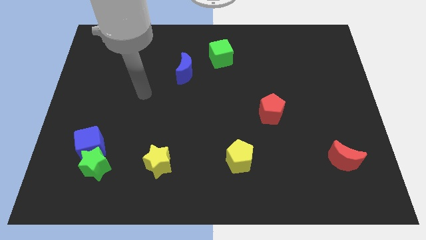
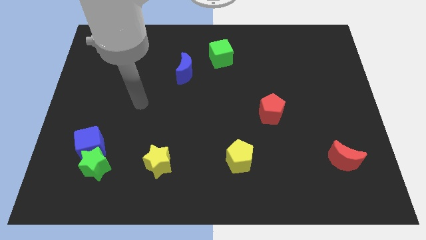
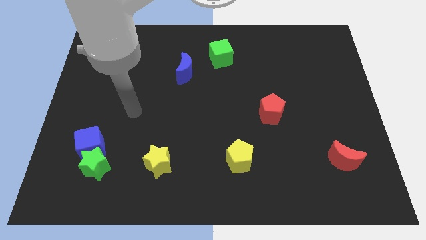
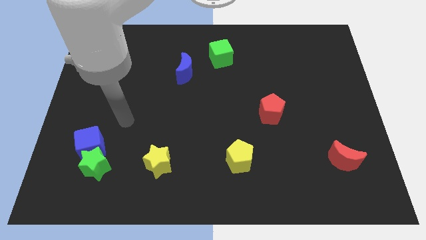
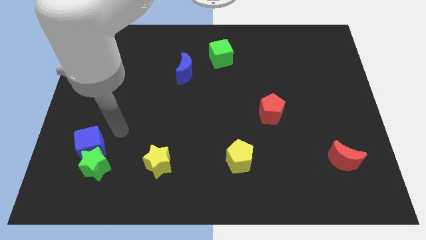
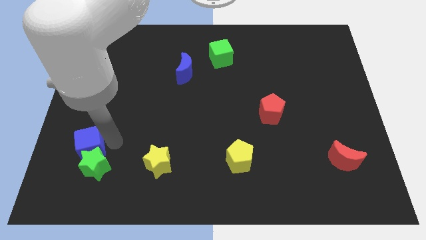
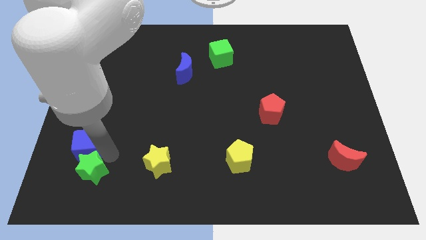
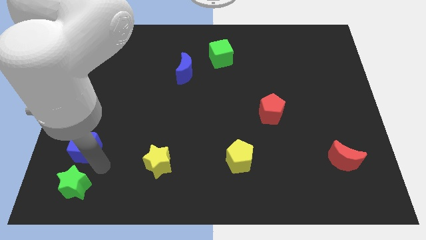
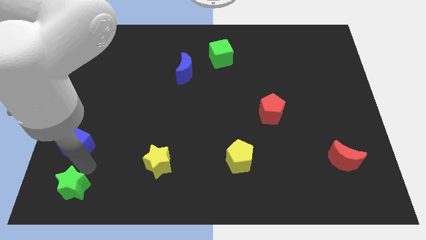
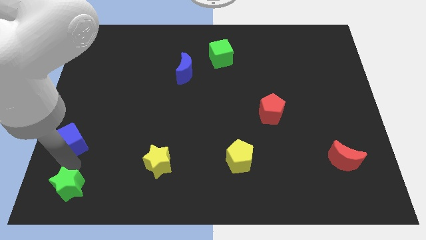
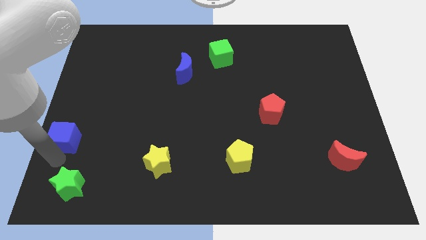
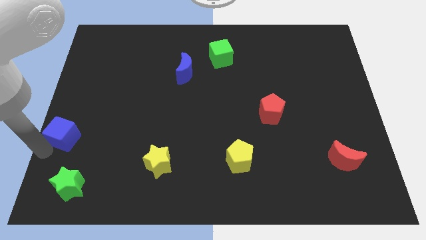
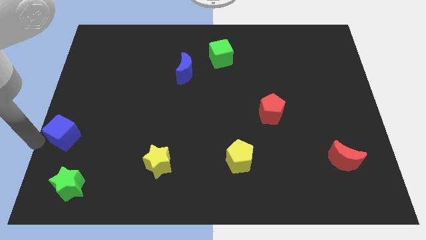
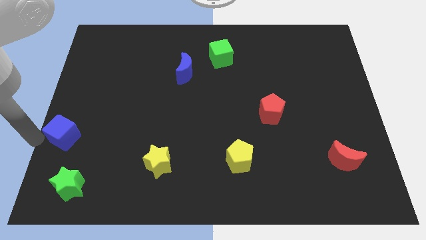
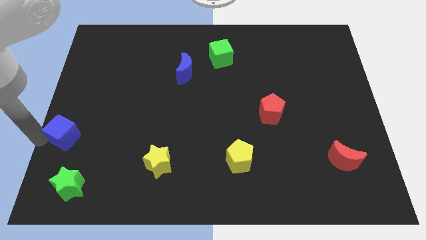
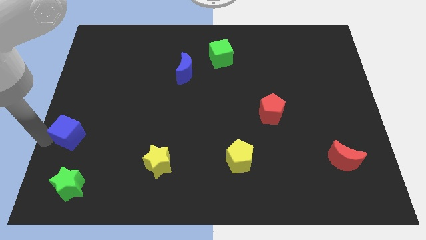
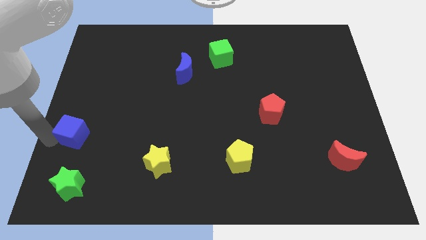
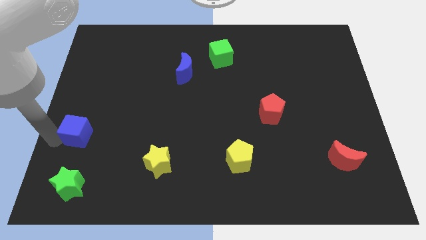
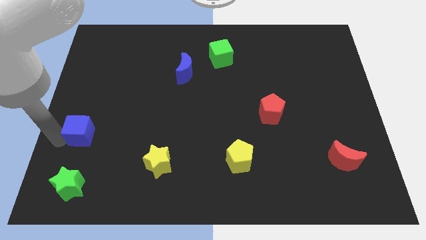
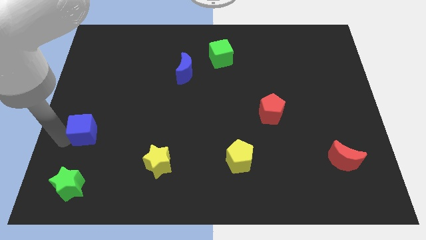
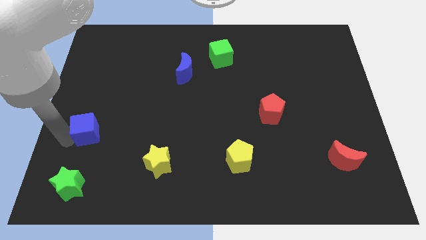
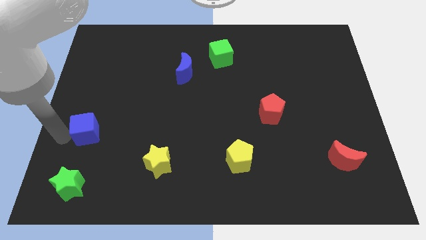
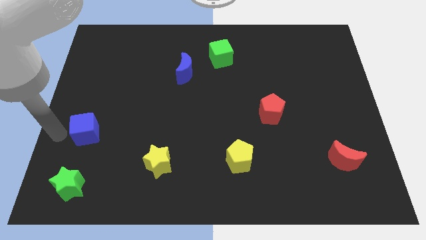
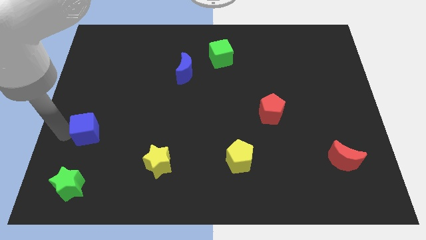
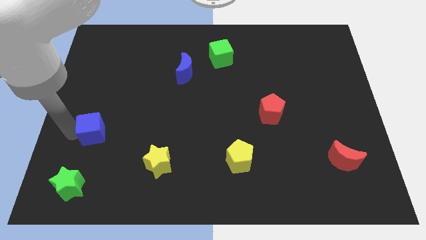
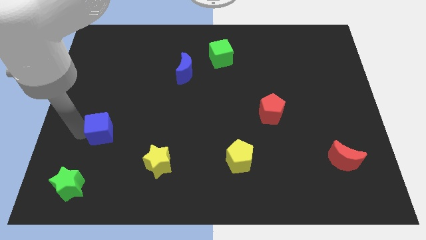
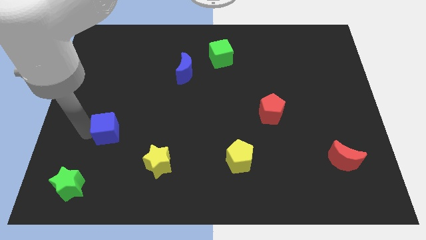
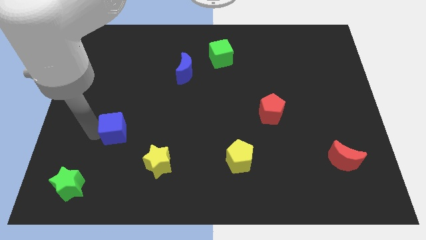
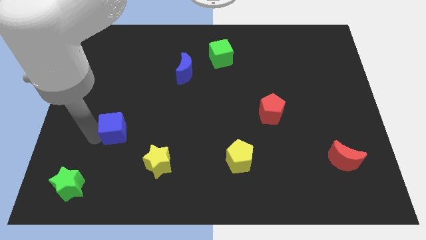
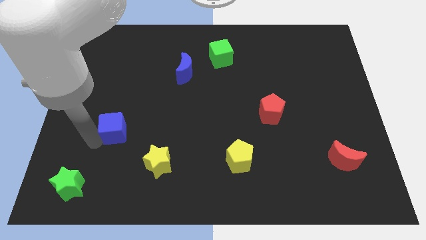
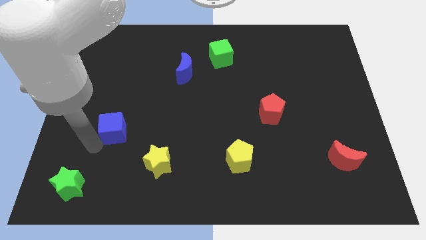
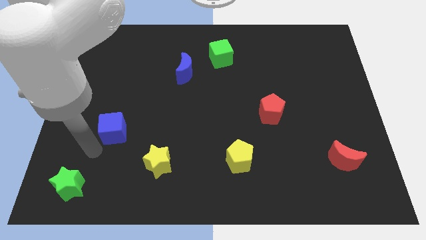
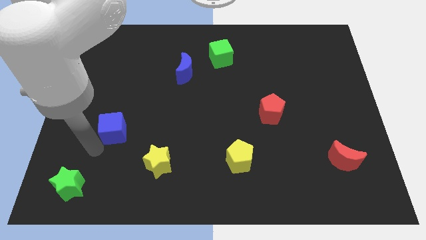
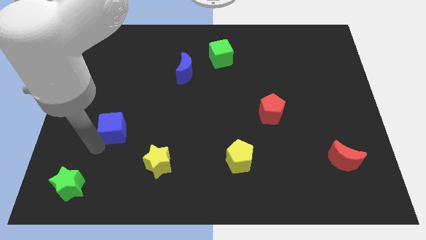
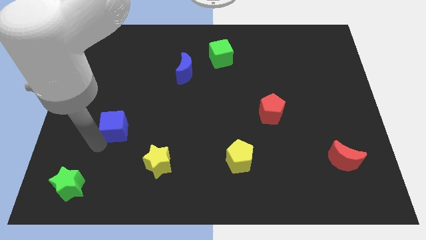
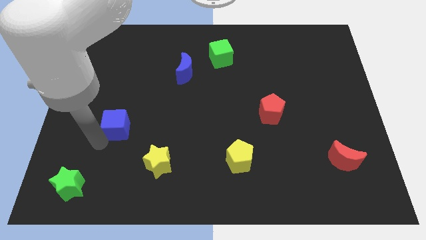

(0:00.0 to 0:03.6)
slightly move the blue cube diagonally up and to the right

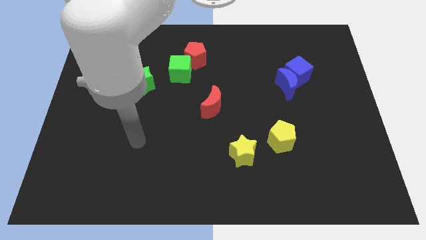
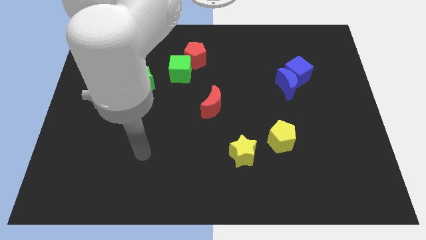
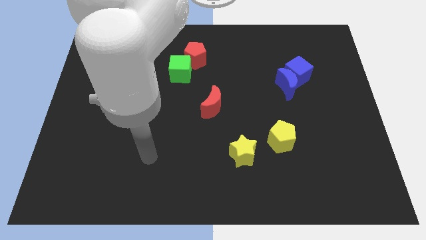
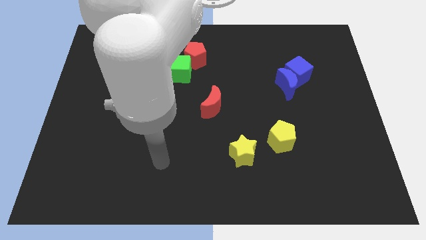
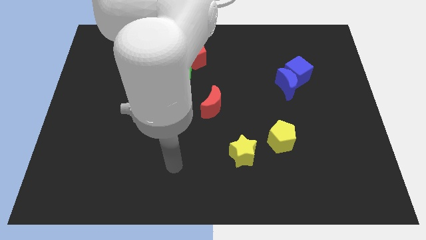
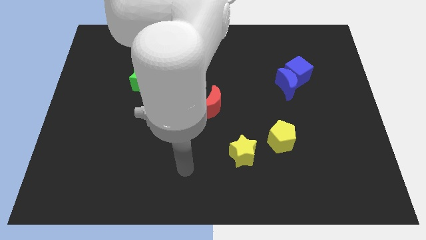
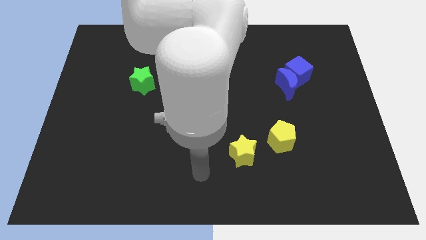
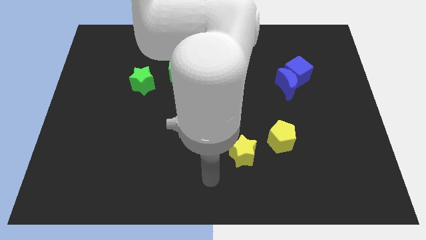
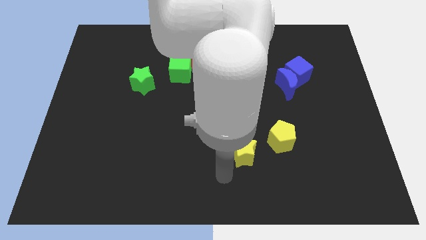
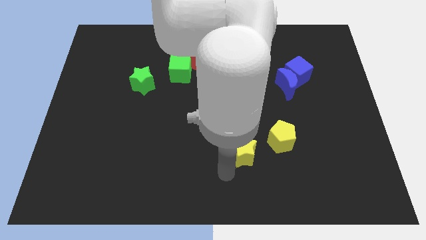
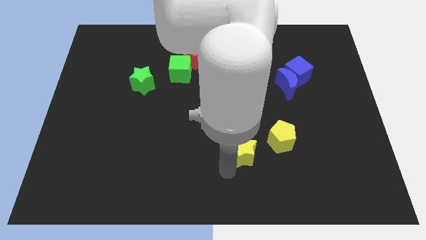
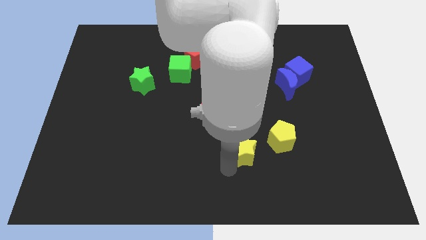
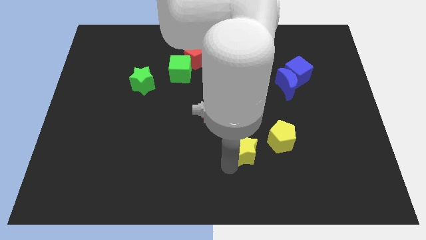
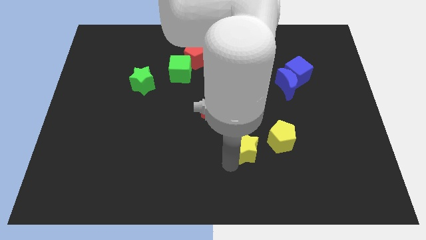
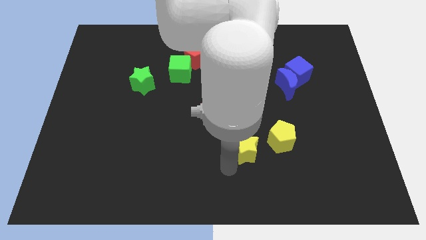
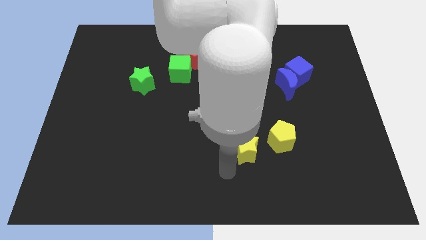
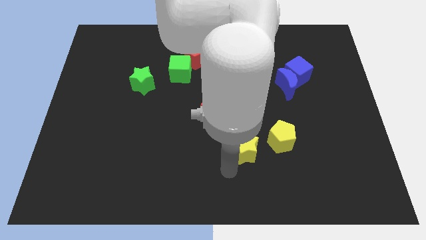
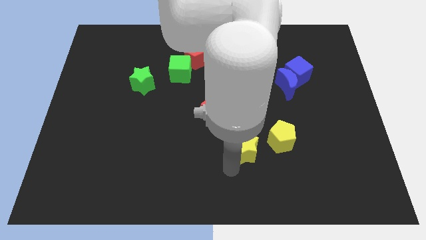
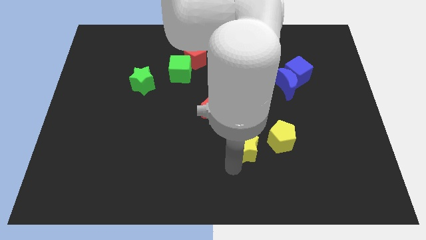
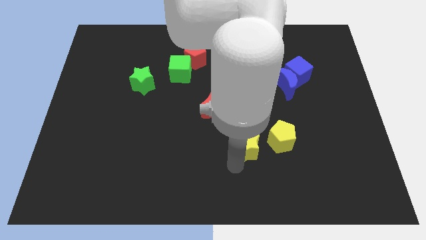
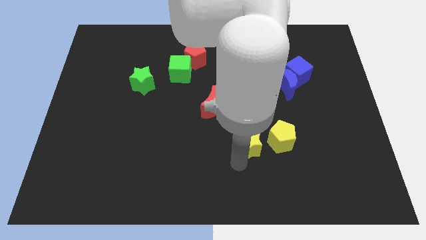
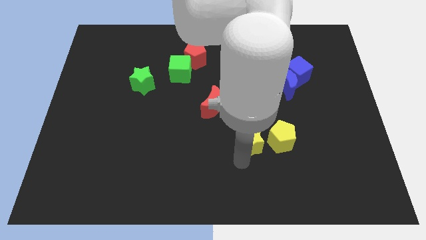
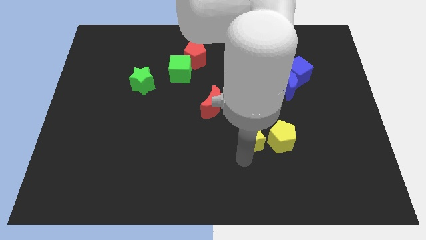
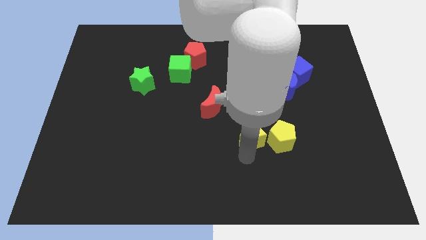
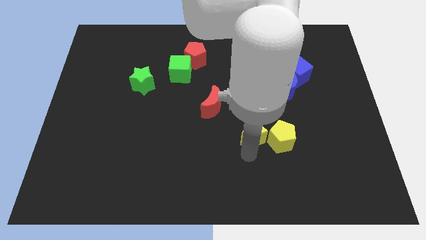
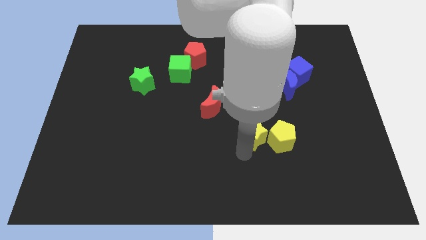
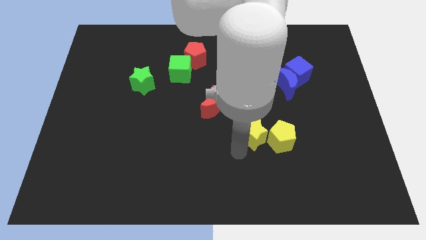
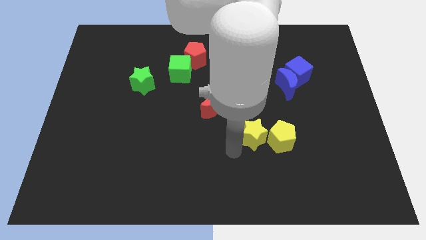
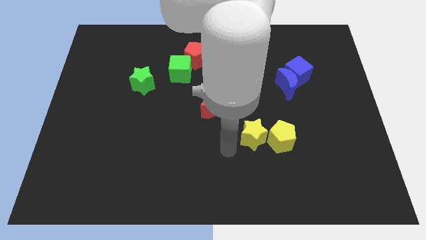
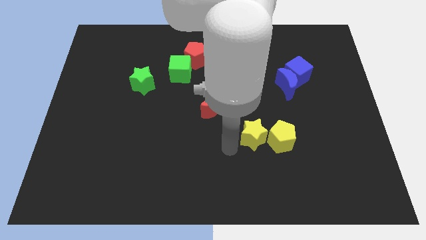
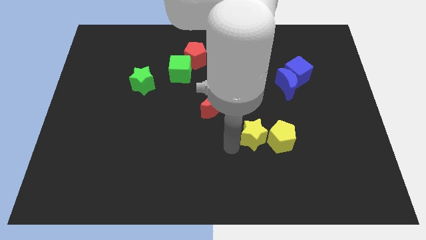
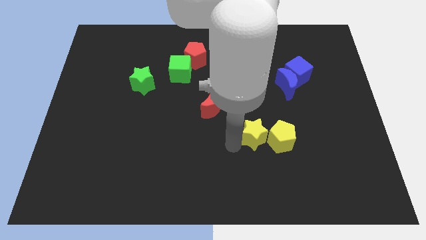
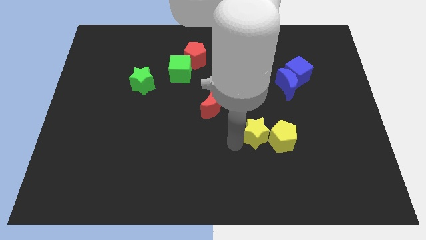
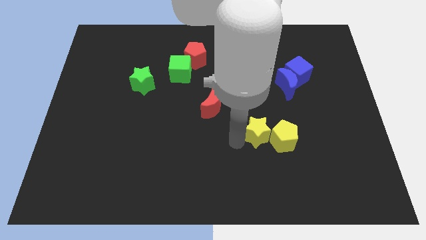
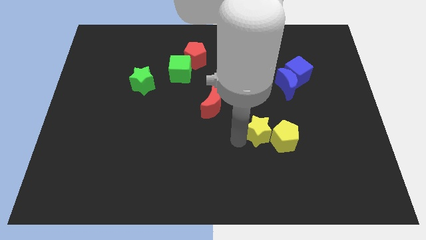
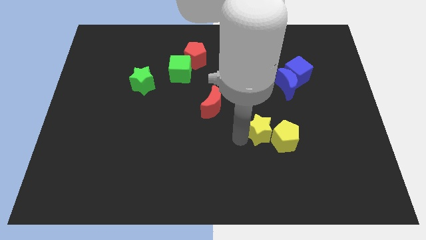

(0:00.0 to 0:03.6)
slide the yellow star a little up and to the right

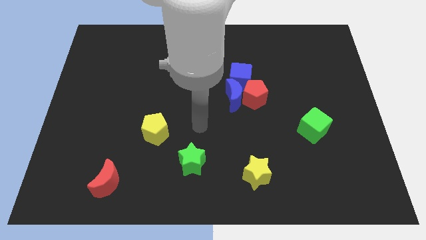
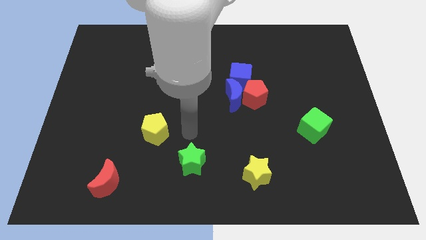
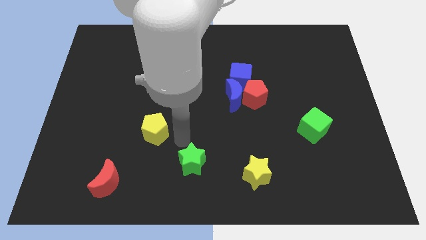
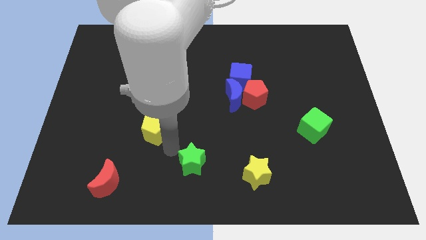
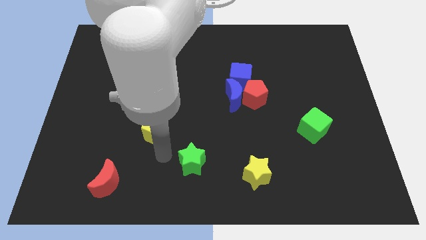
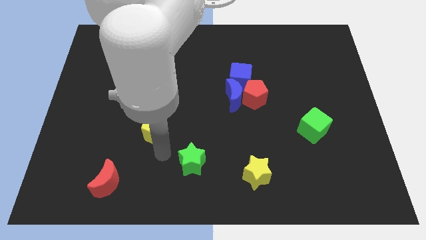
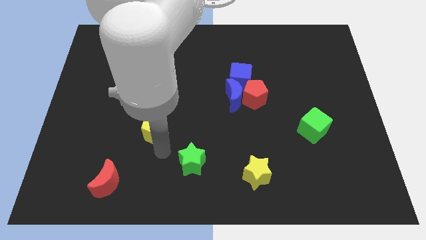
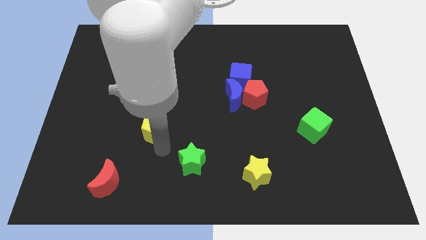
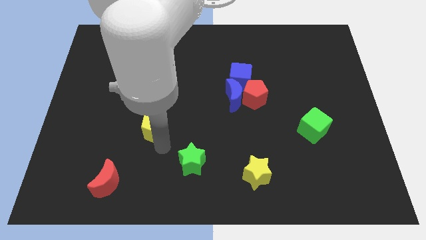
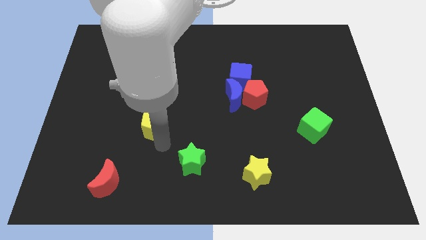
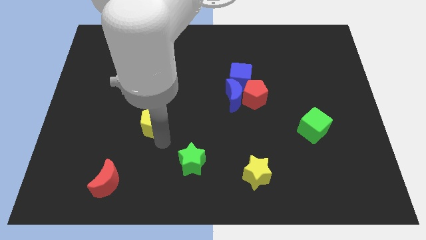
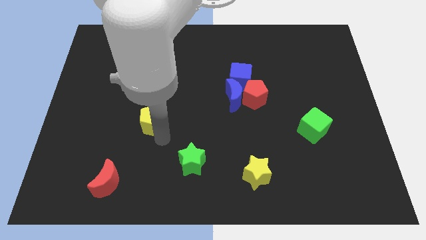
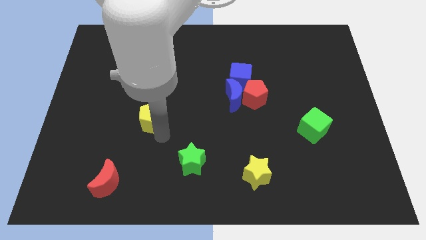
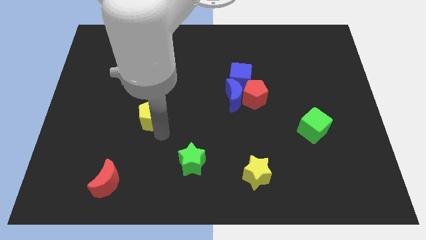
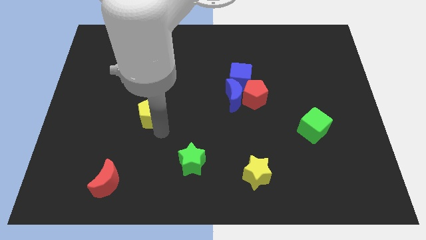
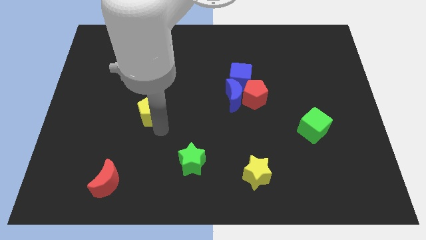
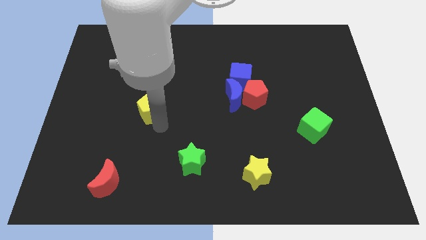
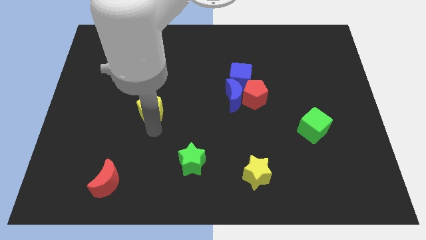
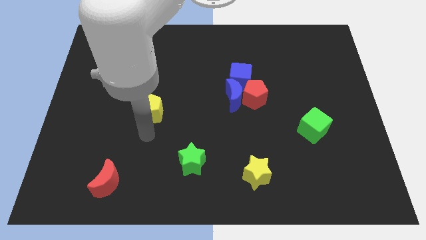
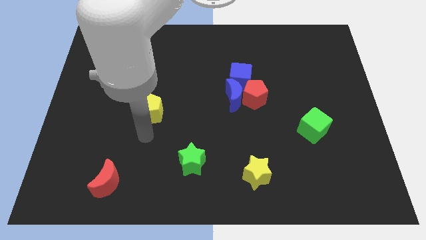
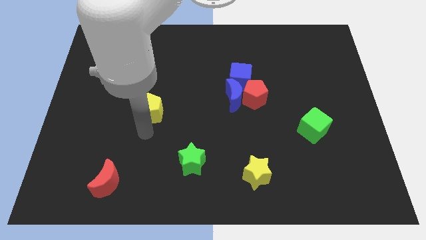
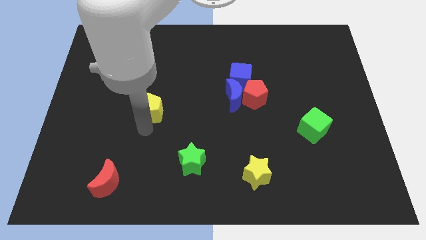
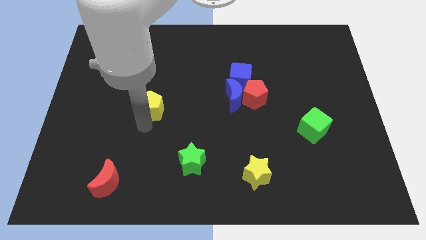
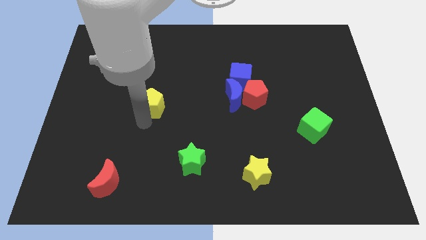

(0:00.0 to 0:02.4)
slide the yellow pentagon up slightly
